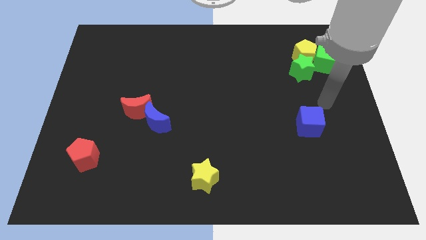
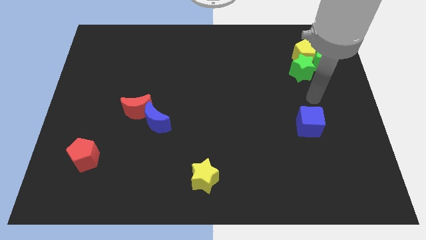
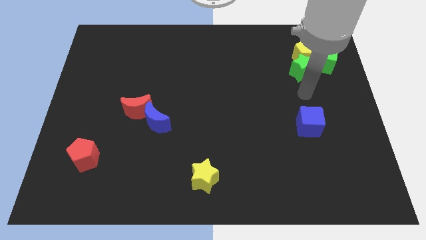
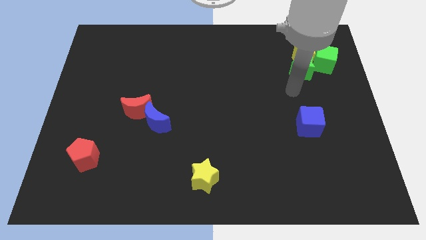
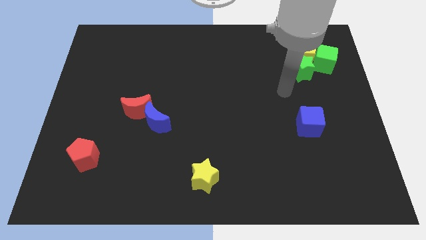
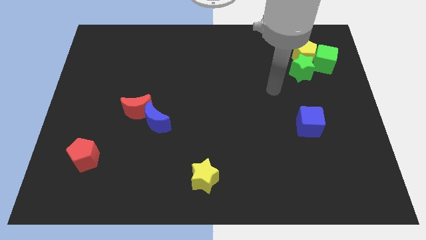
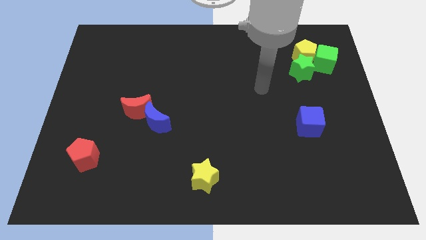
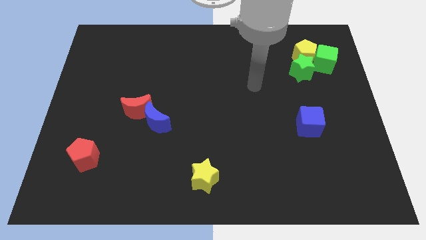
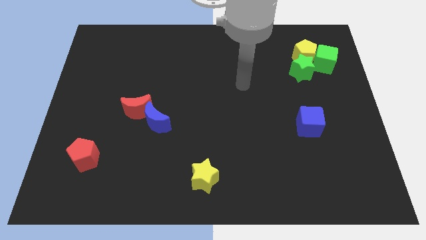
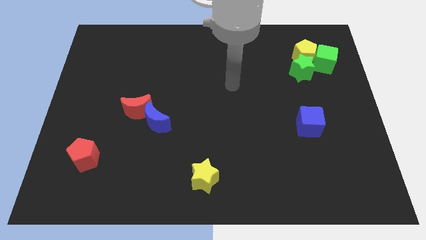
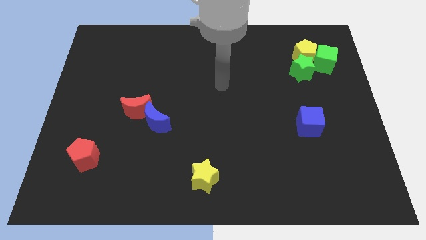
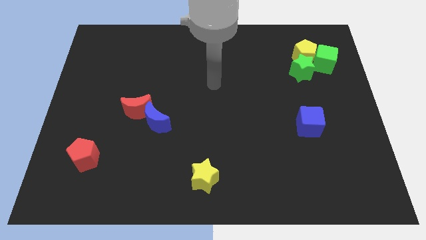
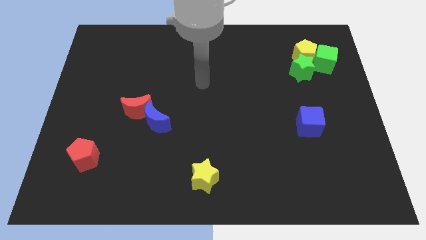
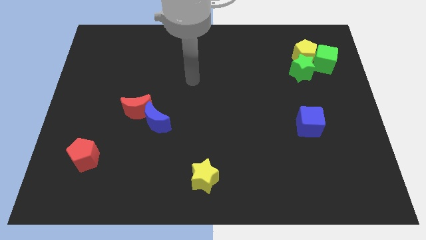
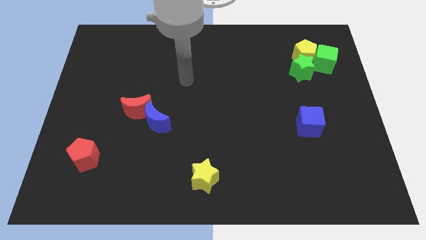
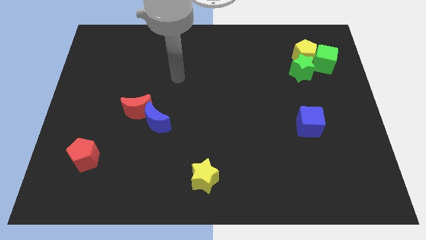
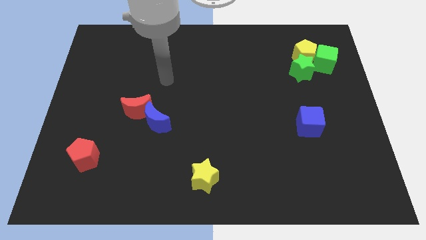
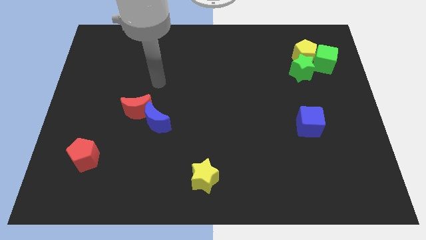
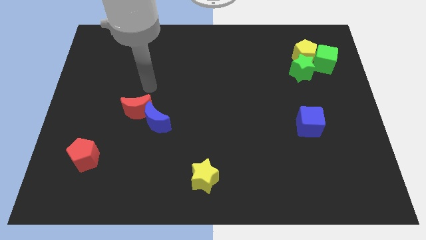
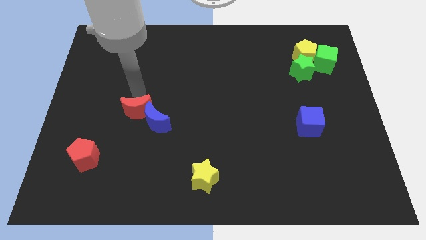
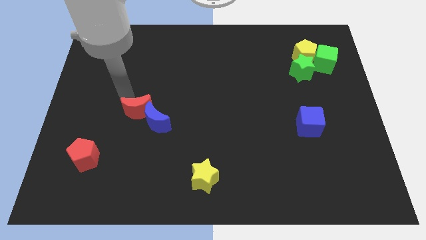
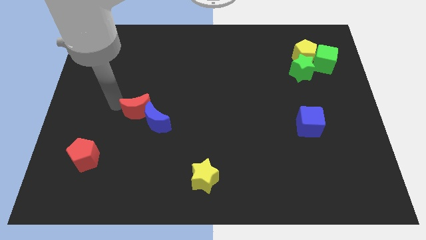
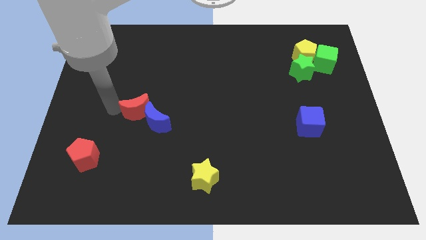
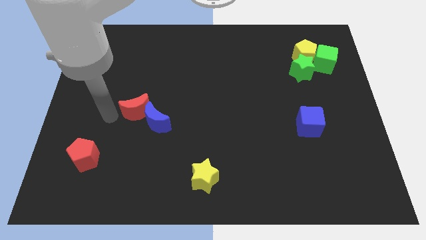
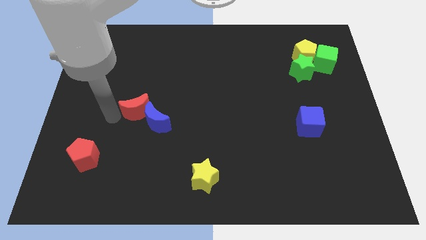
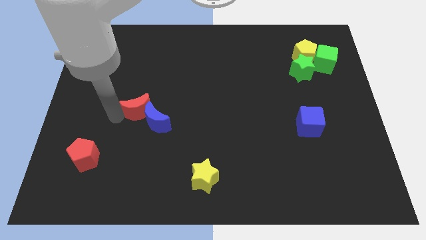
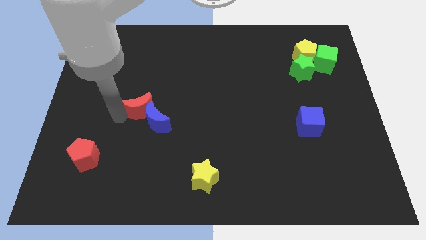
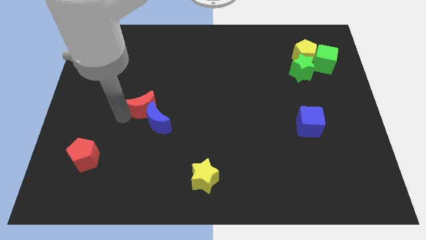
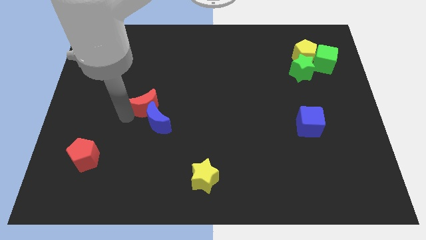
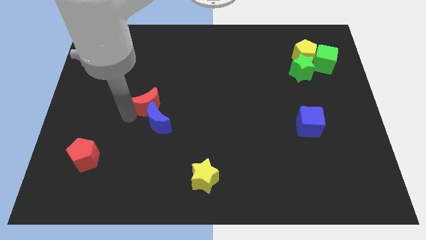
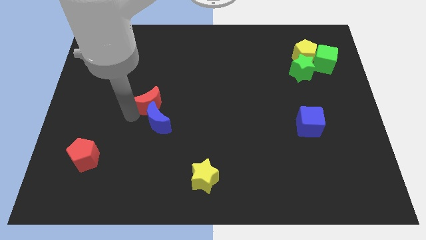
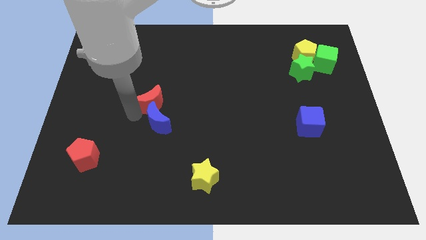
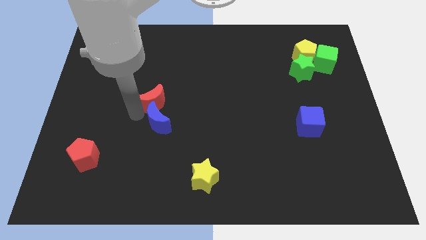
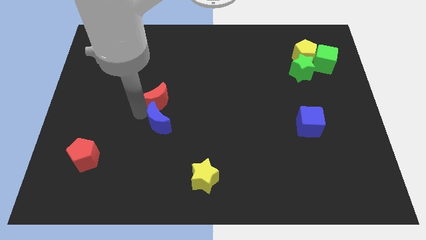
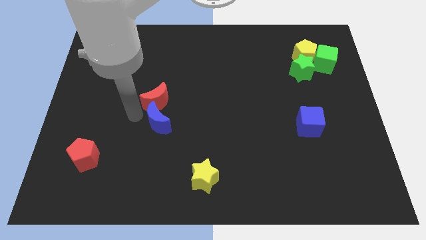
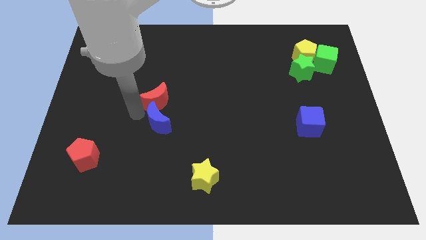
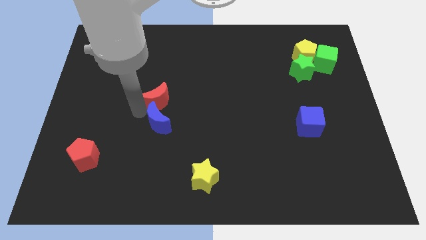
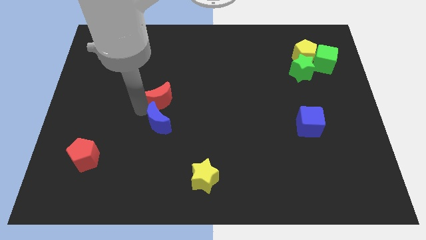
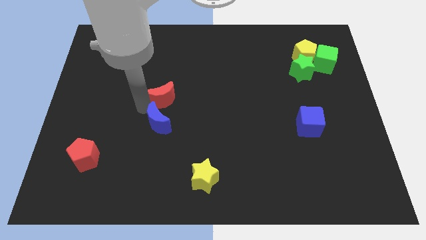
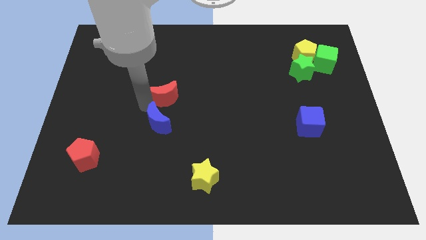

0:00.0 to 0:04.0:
move the red moon slightly diagonally upwards and to the right

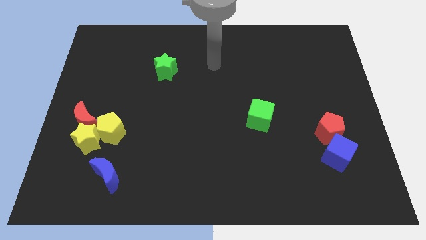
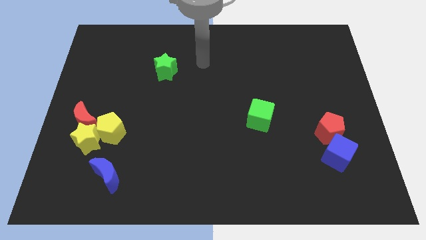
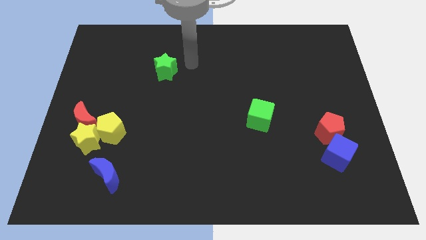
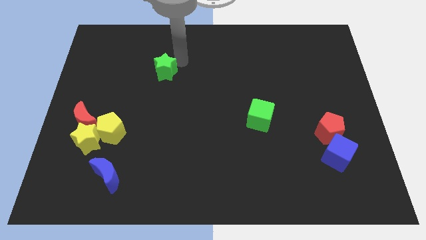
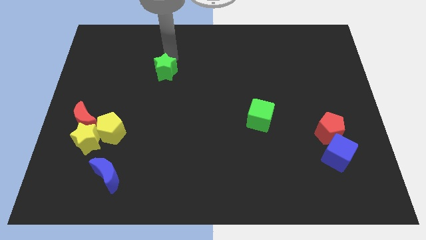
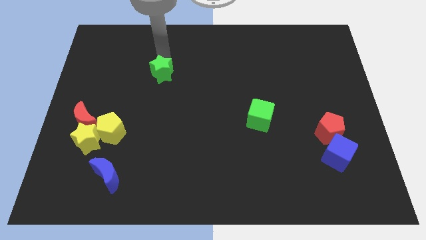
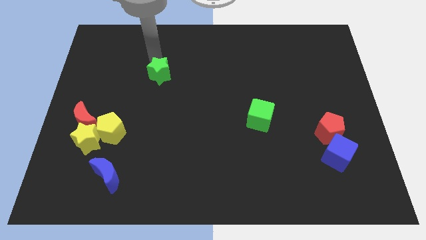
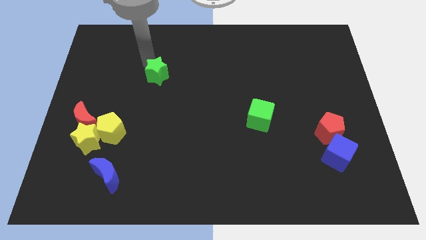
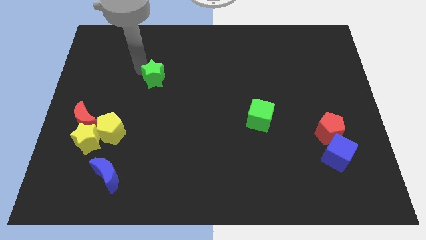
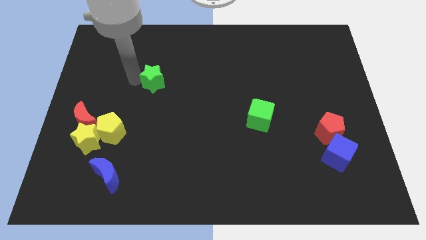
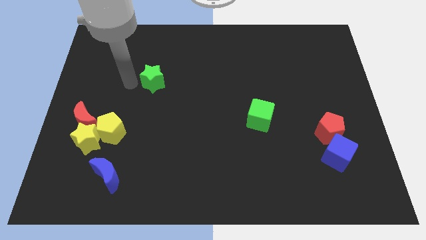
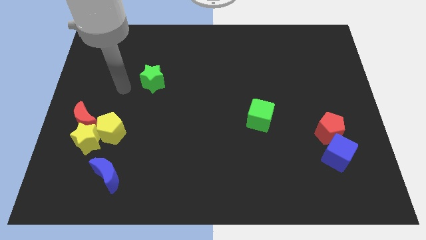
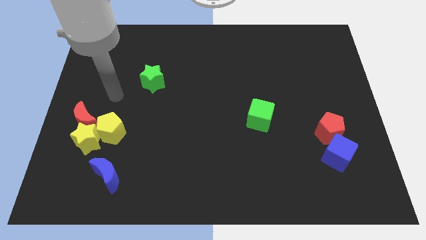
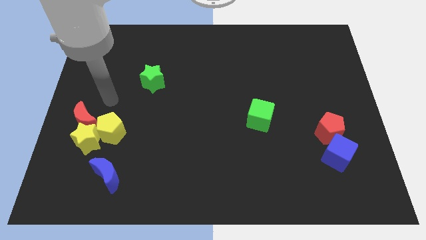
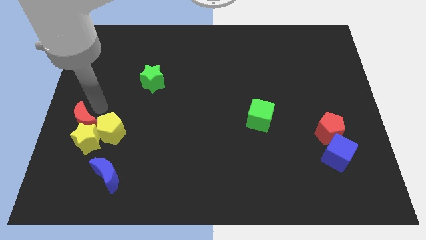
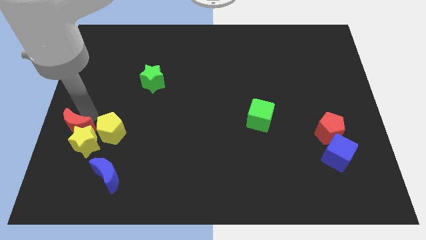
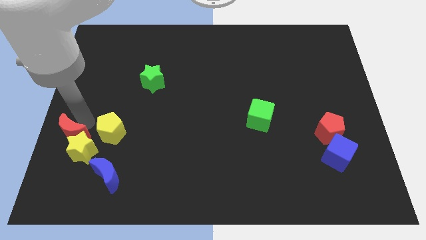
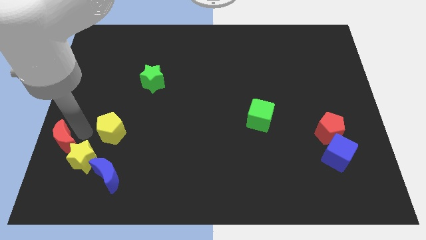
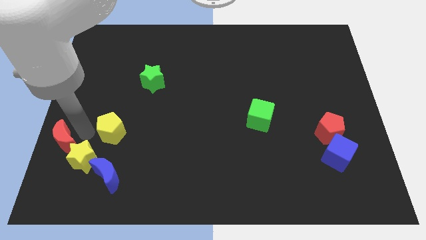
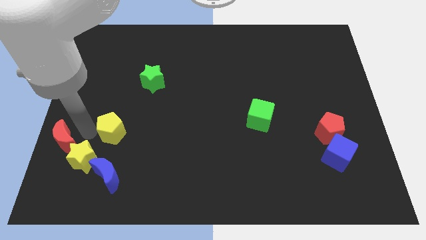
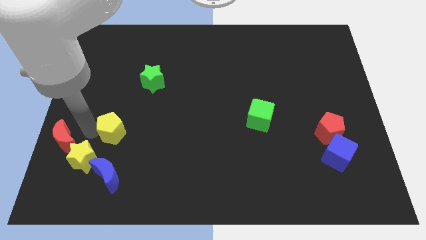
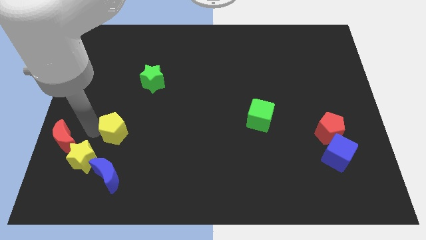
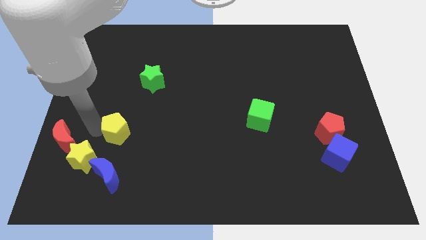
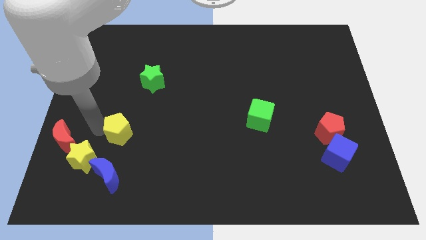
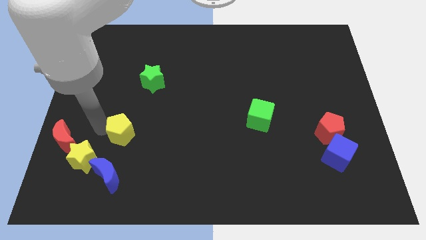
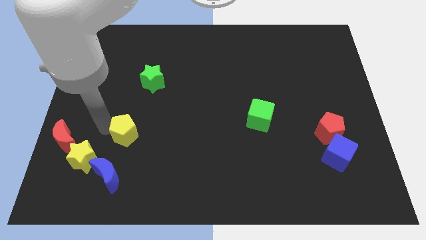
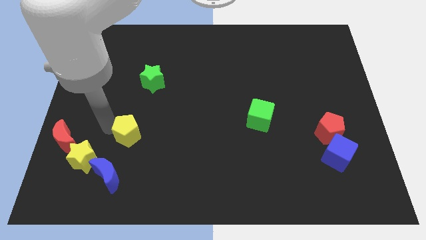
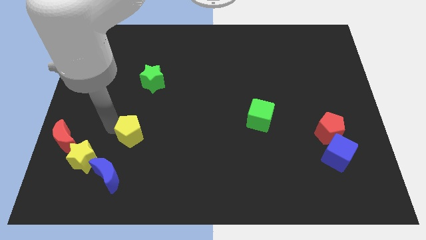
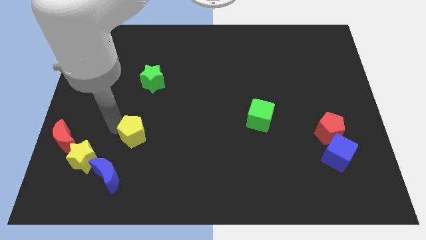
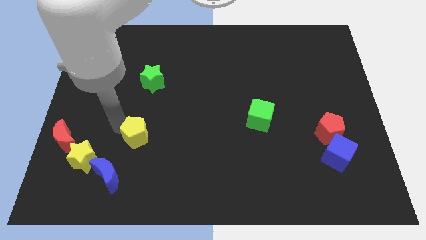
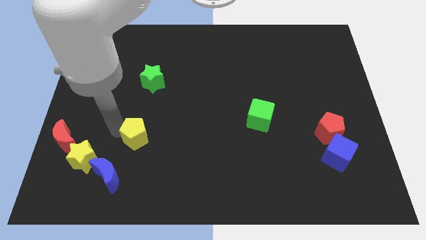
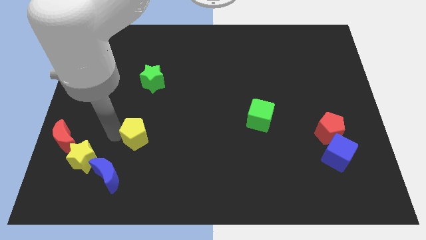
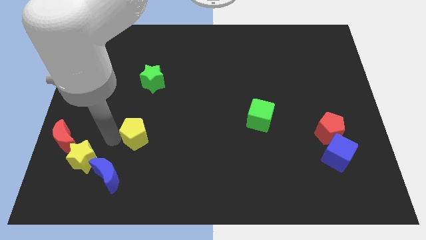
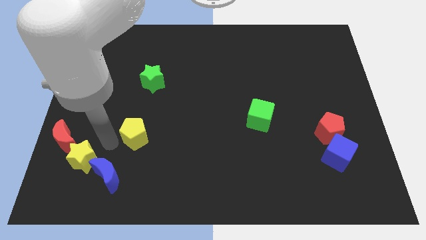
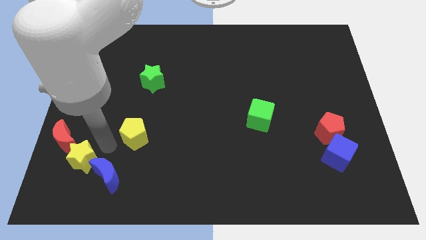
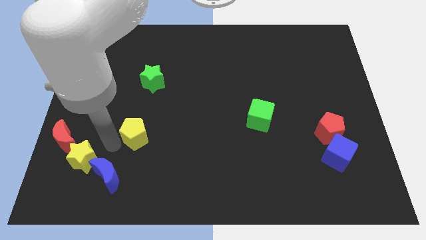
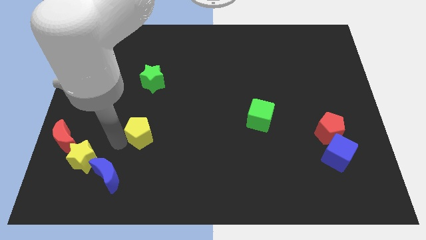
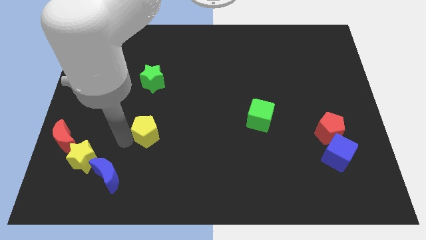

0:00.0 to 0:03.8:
move the yellow pentagon somewhat to the right

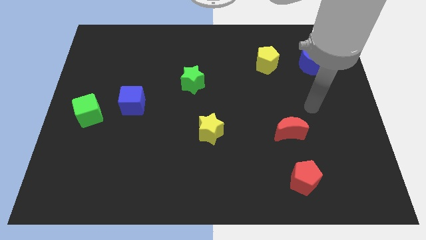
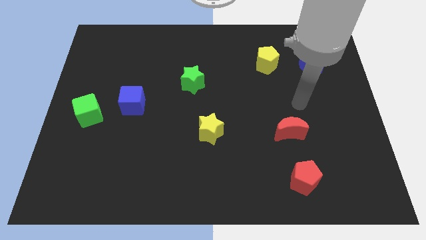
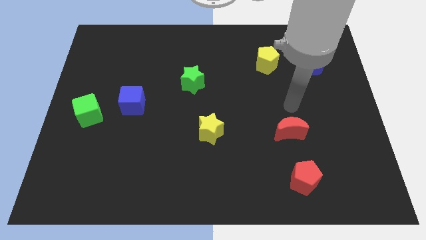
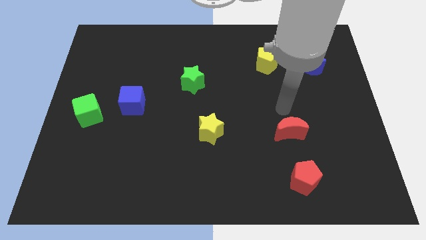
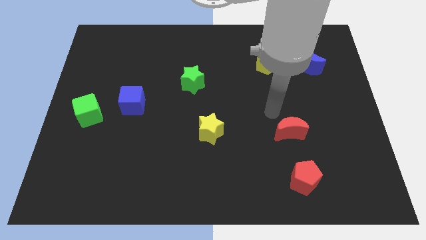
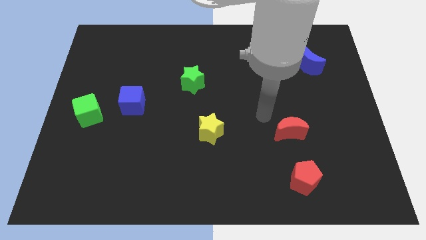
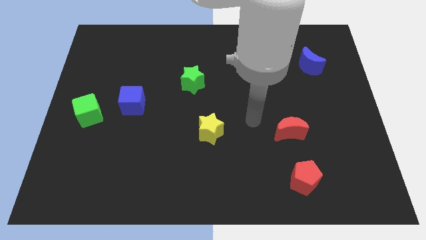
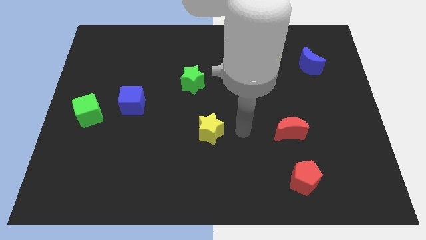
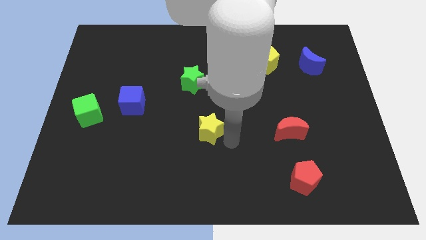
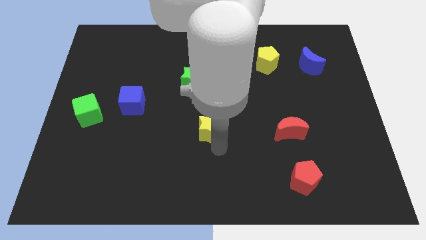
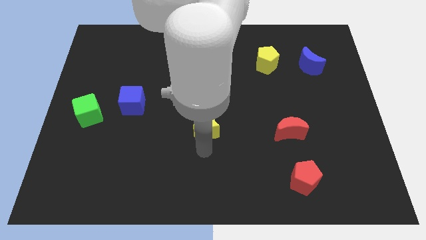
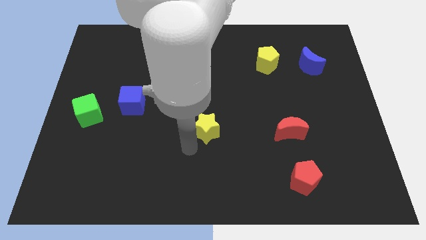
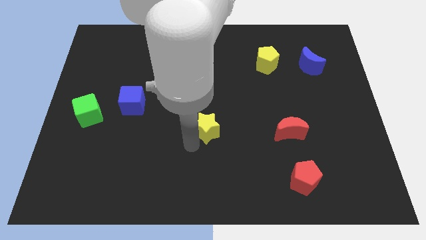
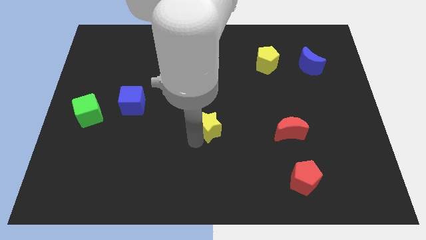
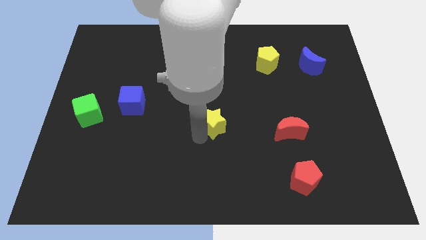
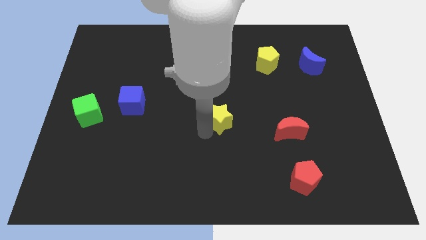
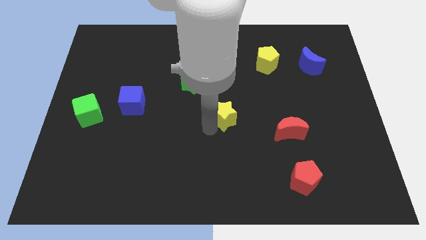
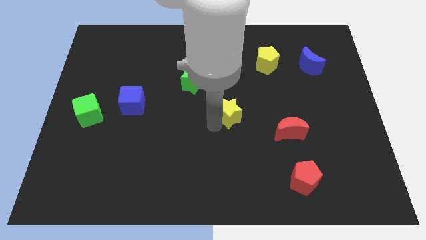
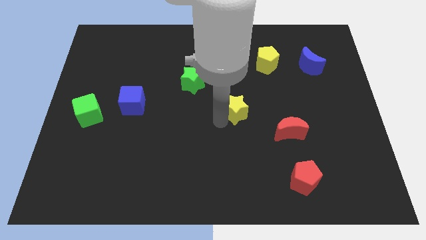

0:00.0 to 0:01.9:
push the yellow star a bit up and then to the right
